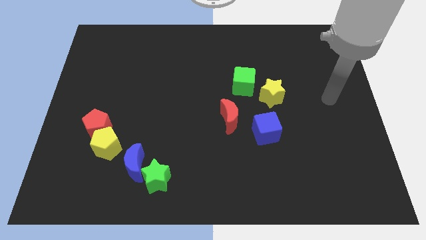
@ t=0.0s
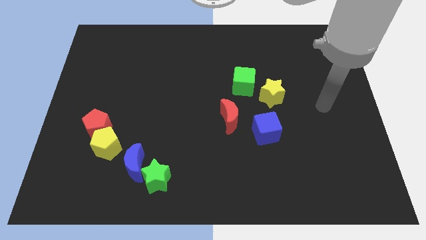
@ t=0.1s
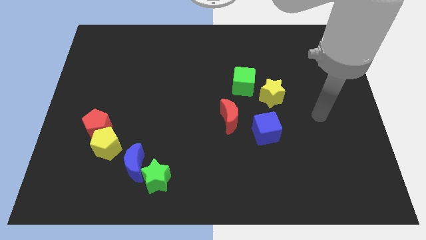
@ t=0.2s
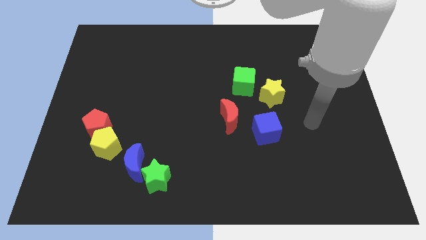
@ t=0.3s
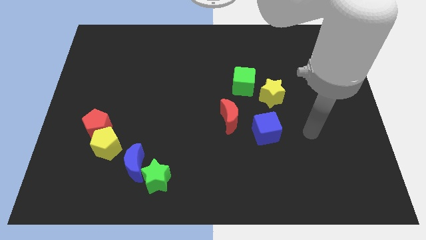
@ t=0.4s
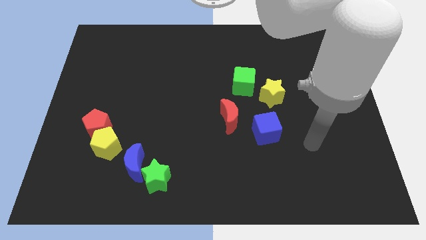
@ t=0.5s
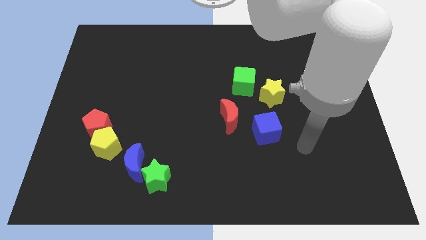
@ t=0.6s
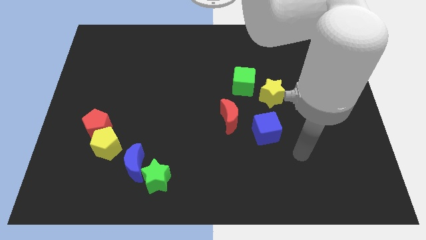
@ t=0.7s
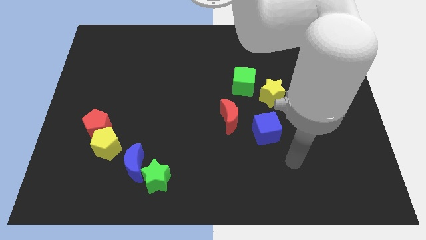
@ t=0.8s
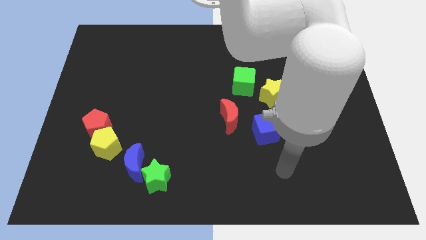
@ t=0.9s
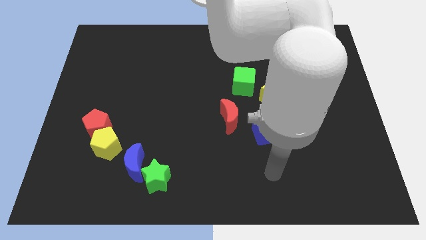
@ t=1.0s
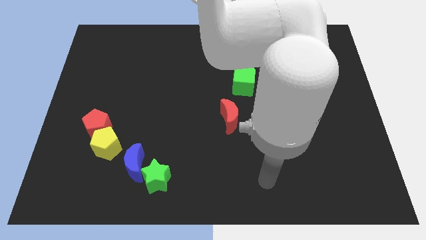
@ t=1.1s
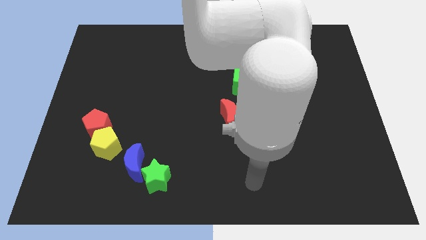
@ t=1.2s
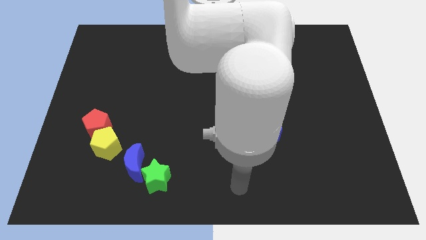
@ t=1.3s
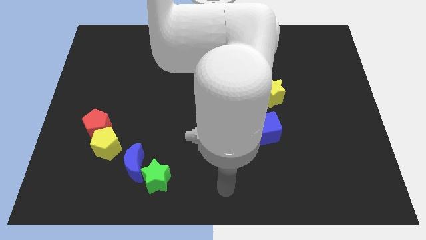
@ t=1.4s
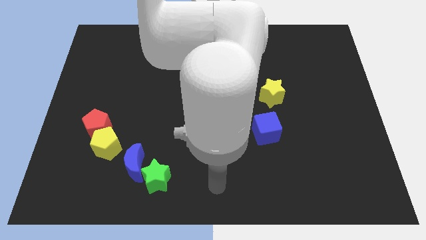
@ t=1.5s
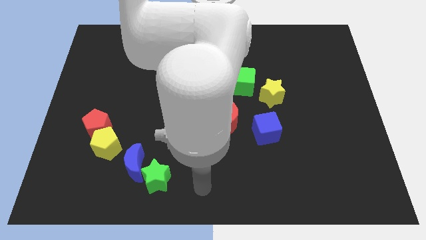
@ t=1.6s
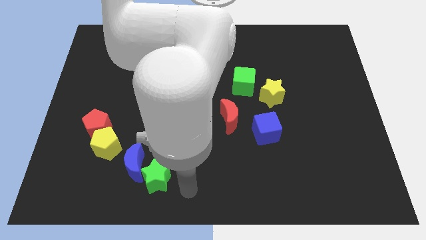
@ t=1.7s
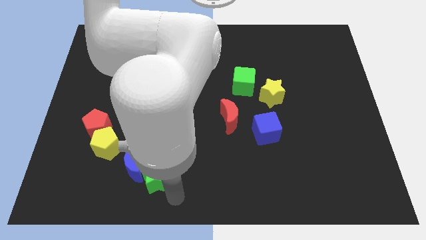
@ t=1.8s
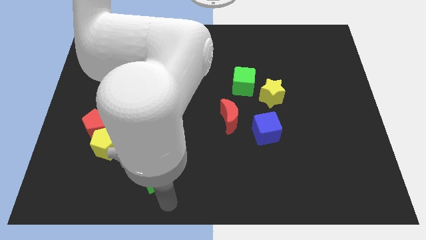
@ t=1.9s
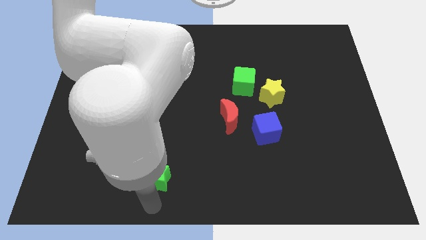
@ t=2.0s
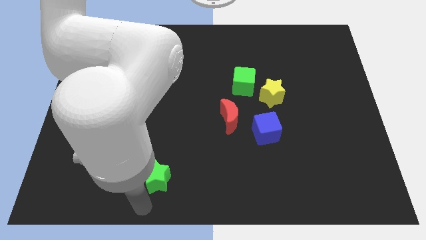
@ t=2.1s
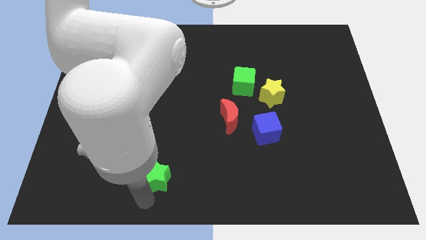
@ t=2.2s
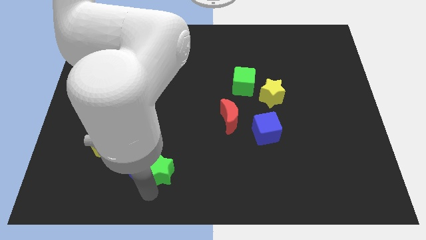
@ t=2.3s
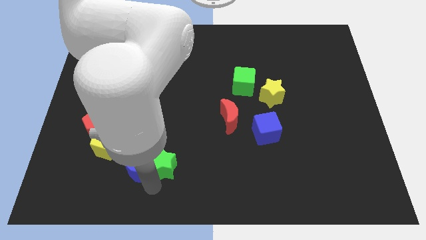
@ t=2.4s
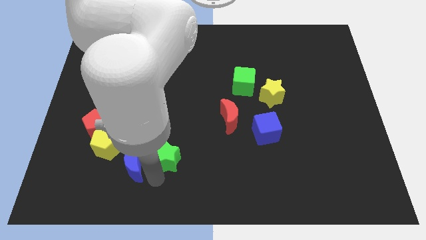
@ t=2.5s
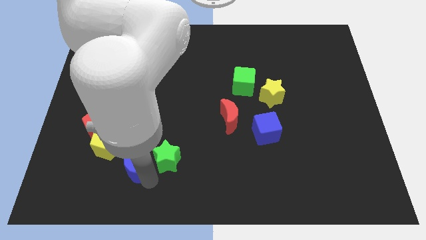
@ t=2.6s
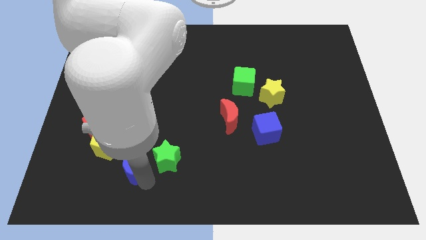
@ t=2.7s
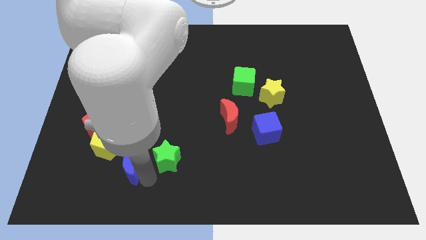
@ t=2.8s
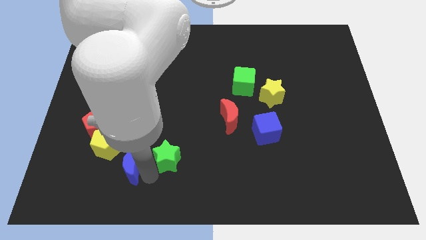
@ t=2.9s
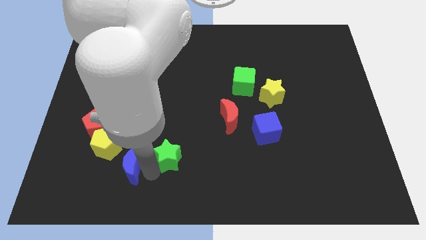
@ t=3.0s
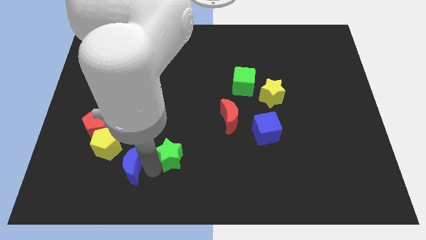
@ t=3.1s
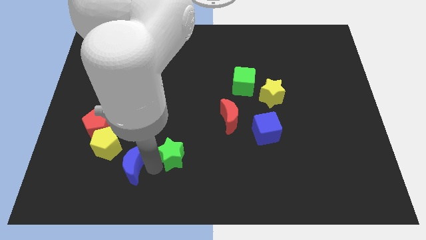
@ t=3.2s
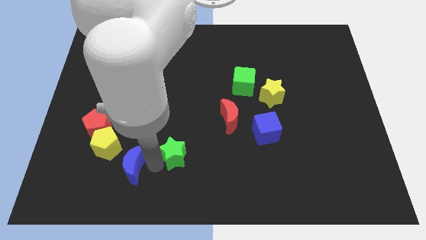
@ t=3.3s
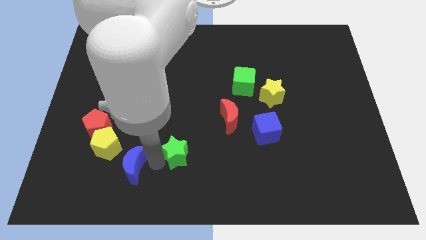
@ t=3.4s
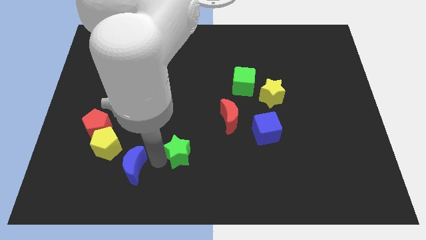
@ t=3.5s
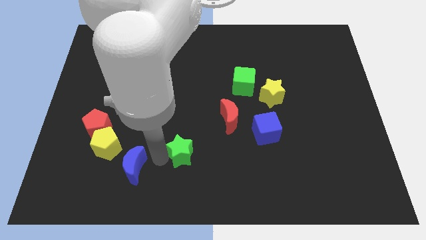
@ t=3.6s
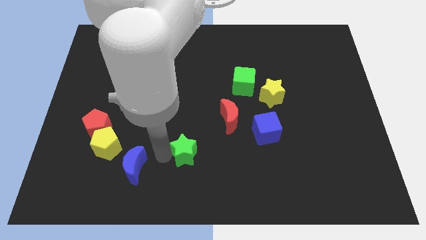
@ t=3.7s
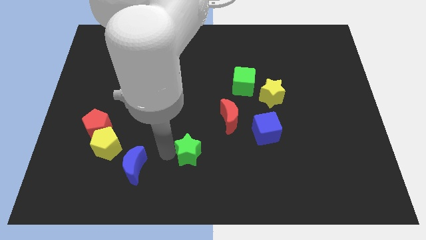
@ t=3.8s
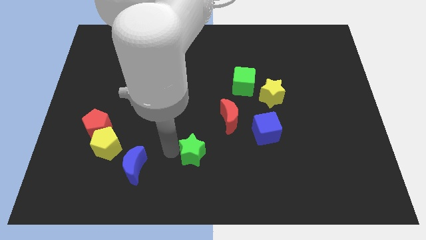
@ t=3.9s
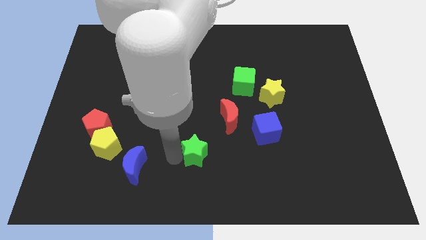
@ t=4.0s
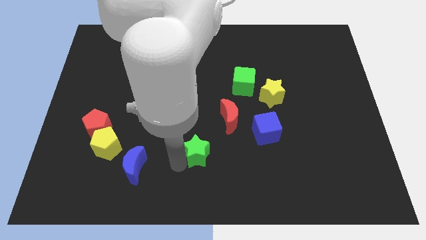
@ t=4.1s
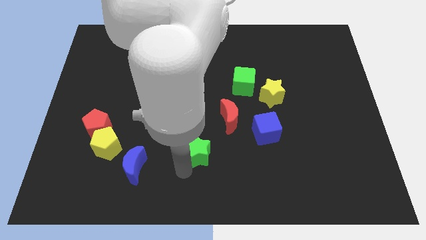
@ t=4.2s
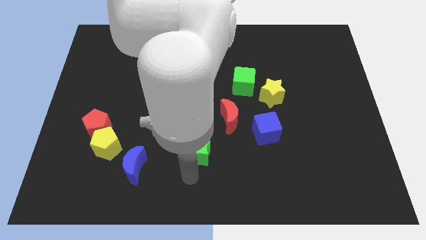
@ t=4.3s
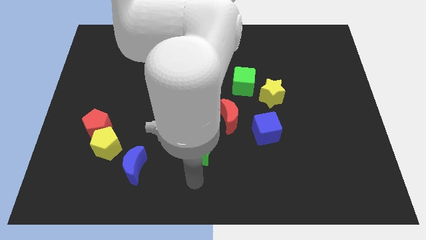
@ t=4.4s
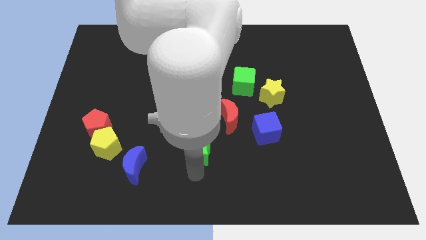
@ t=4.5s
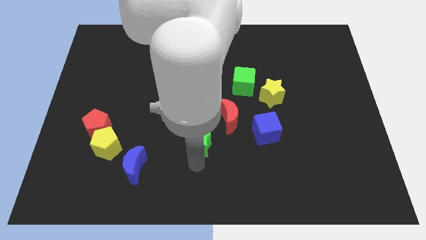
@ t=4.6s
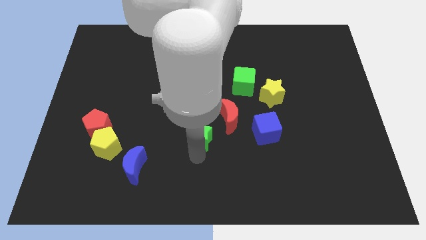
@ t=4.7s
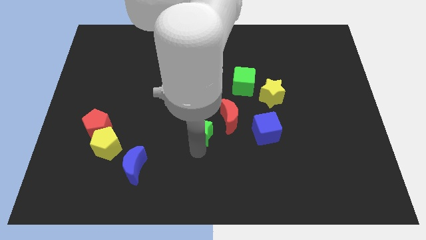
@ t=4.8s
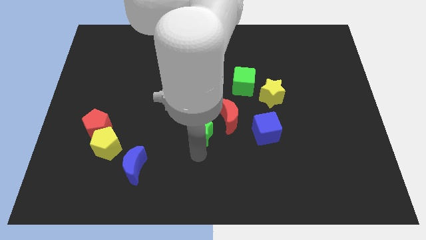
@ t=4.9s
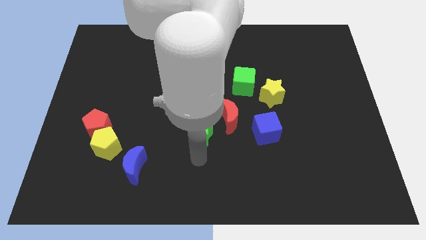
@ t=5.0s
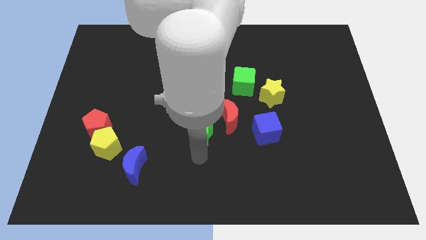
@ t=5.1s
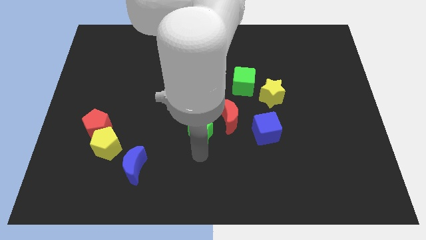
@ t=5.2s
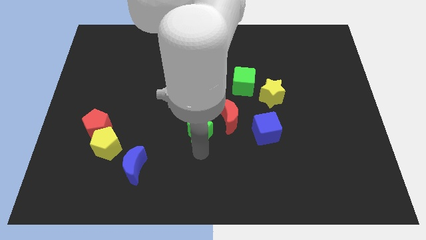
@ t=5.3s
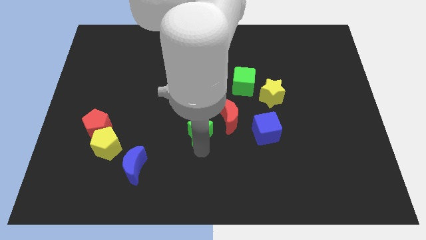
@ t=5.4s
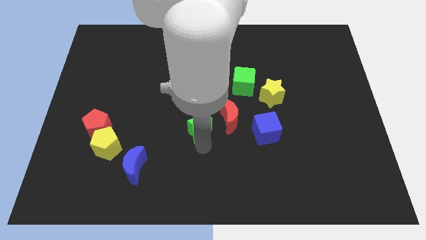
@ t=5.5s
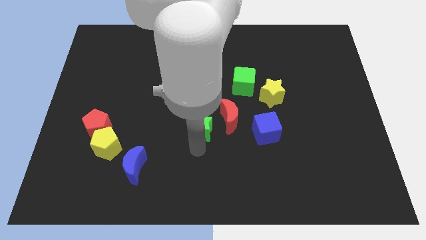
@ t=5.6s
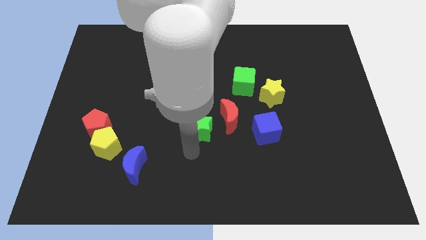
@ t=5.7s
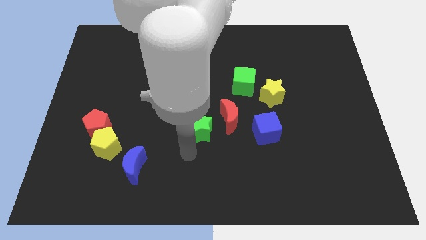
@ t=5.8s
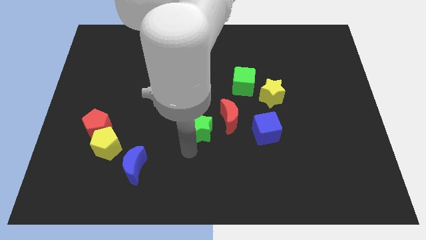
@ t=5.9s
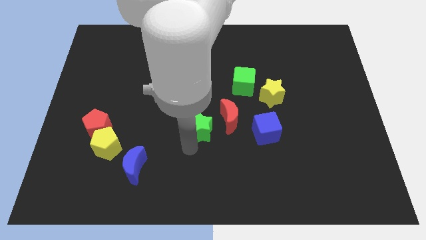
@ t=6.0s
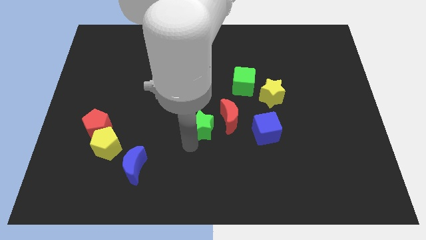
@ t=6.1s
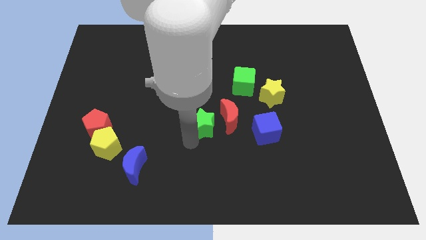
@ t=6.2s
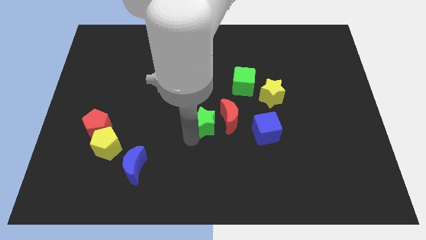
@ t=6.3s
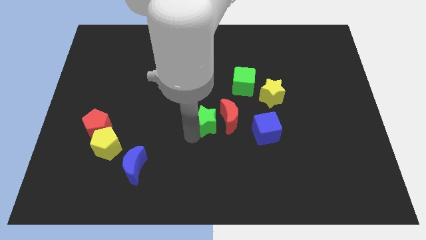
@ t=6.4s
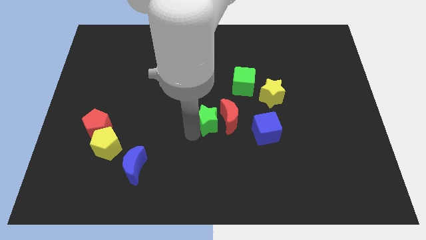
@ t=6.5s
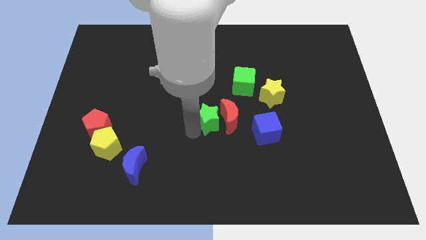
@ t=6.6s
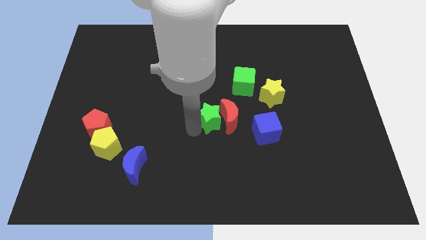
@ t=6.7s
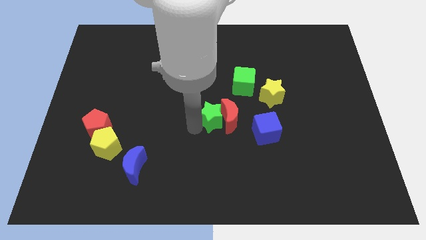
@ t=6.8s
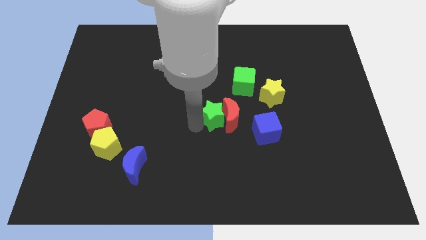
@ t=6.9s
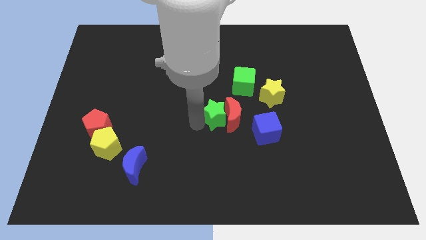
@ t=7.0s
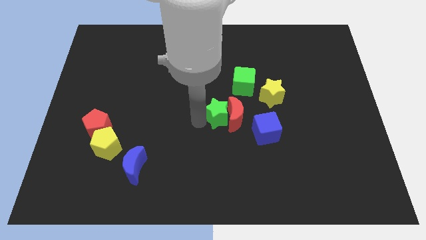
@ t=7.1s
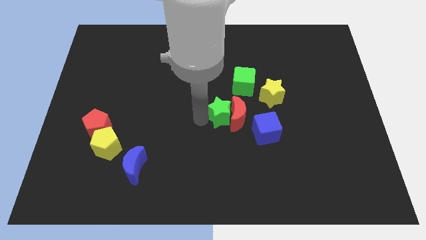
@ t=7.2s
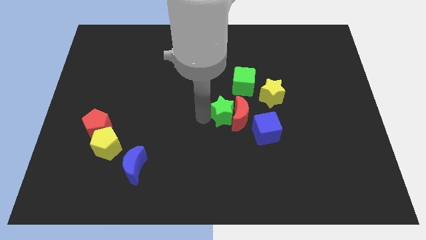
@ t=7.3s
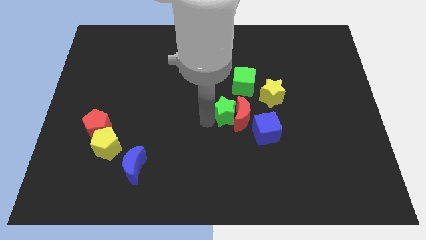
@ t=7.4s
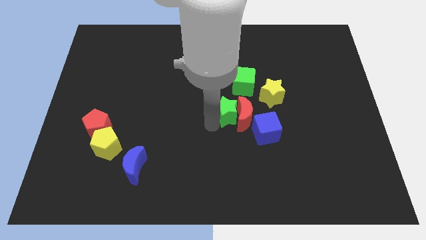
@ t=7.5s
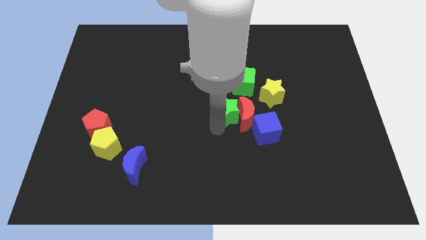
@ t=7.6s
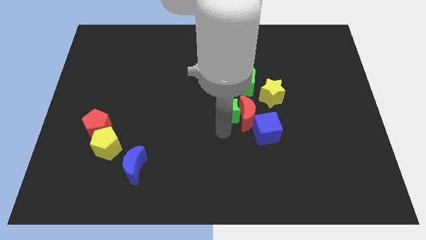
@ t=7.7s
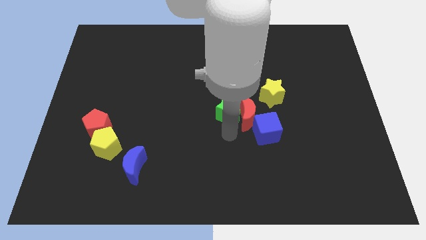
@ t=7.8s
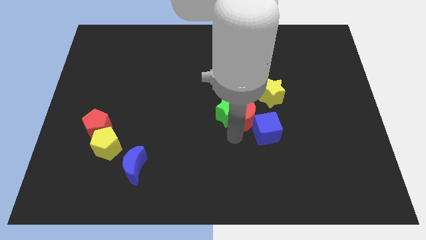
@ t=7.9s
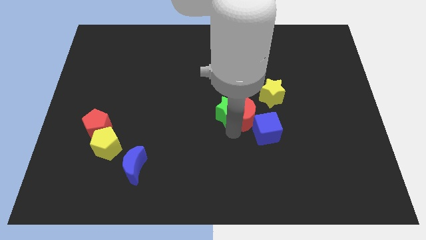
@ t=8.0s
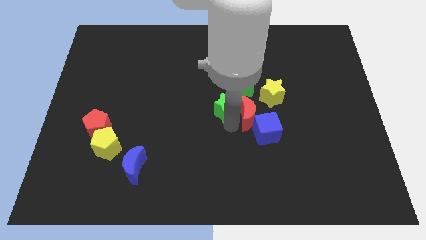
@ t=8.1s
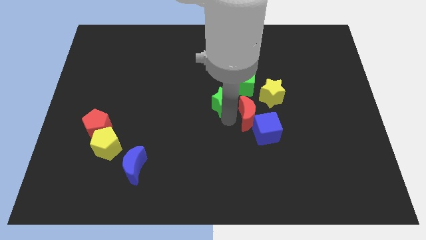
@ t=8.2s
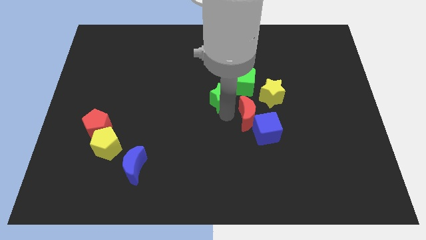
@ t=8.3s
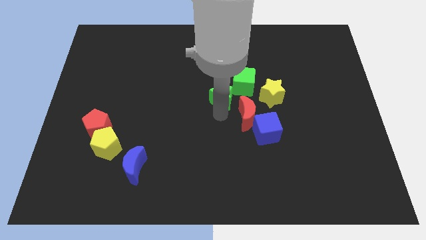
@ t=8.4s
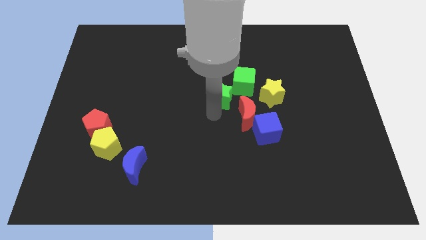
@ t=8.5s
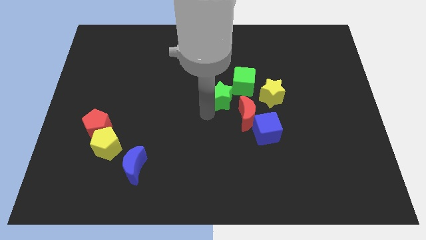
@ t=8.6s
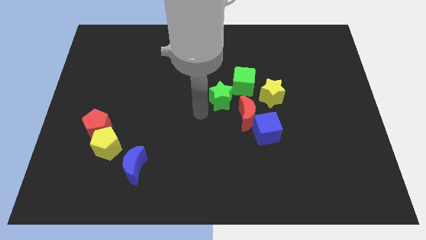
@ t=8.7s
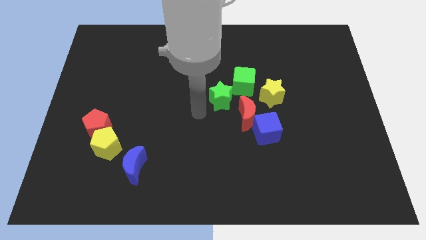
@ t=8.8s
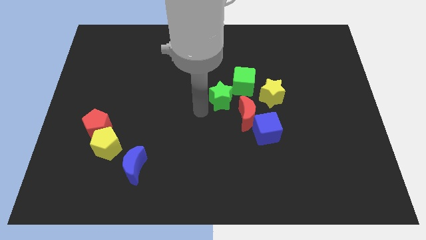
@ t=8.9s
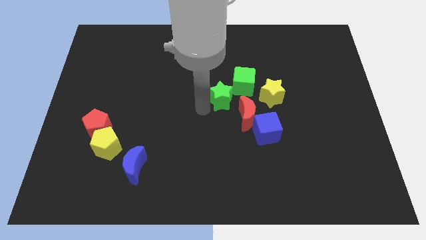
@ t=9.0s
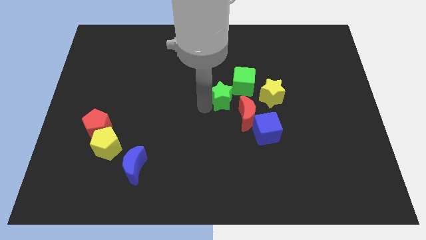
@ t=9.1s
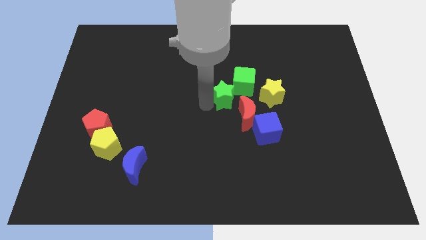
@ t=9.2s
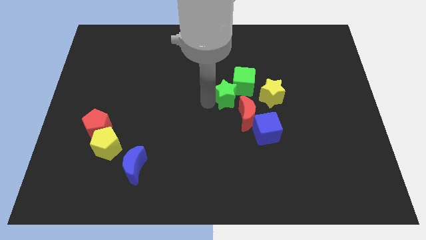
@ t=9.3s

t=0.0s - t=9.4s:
put the green star close to the green cube
